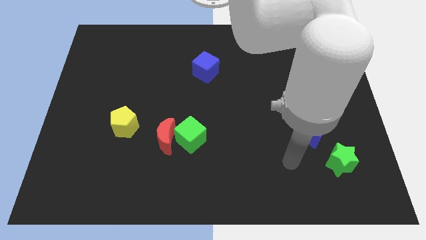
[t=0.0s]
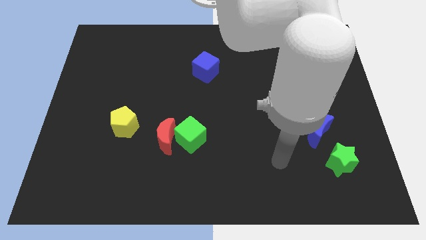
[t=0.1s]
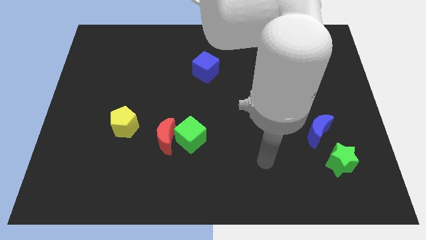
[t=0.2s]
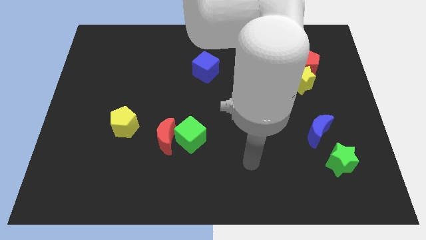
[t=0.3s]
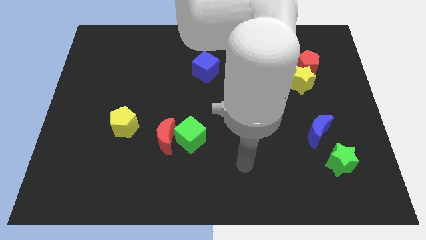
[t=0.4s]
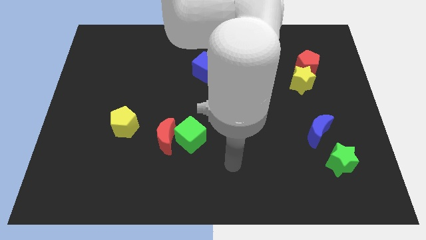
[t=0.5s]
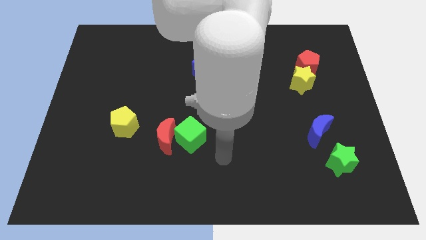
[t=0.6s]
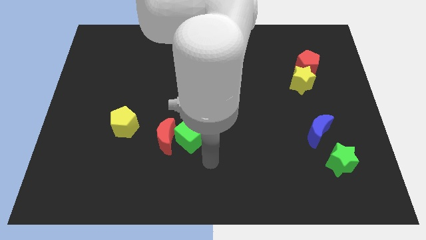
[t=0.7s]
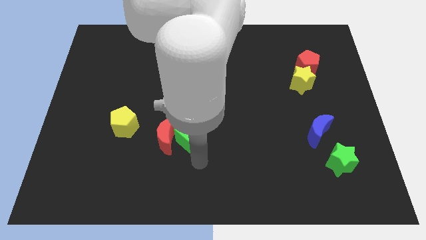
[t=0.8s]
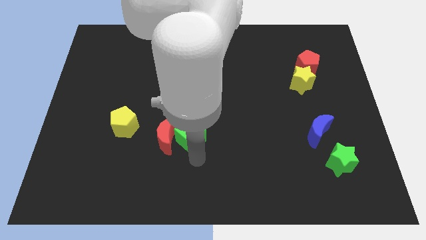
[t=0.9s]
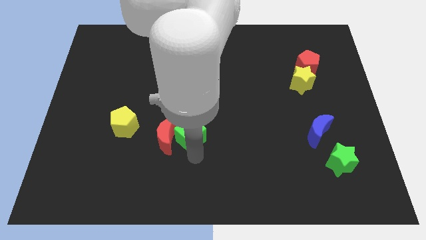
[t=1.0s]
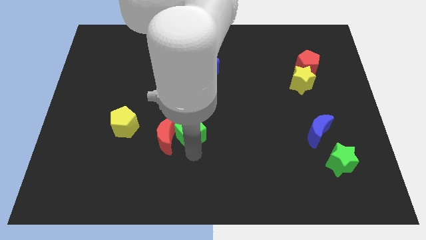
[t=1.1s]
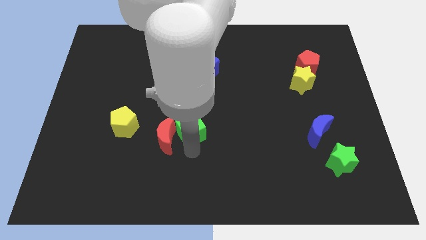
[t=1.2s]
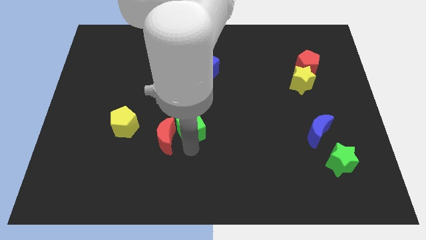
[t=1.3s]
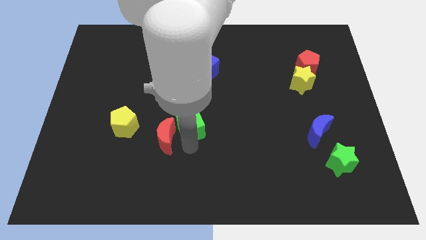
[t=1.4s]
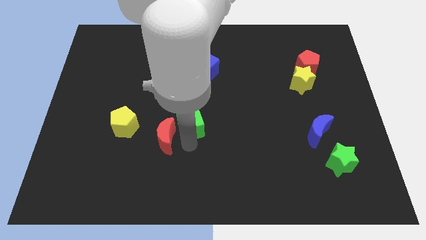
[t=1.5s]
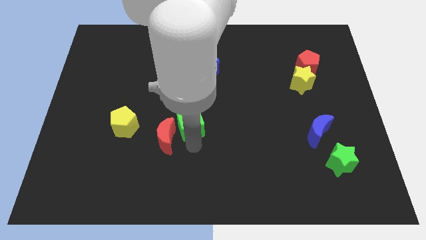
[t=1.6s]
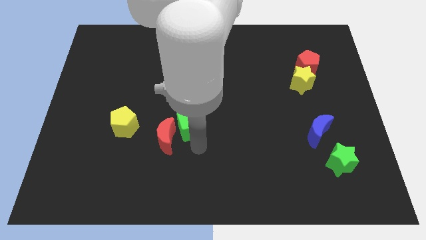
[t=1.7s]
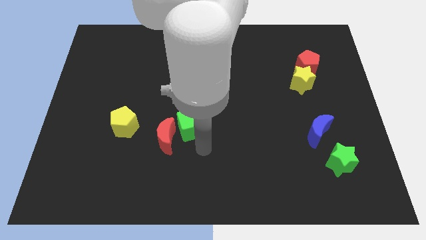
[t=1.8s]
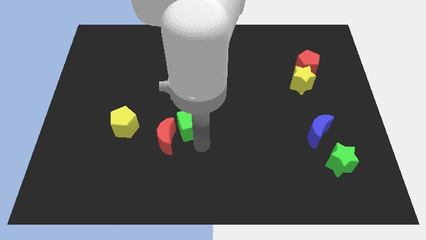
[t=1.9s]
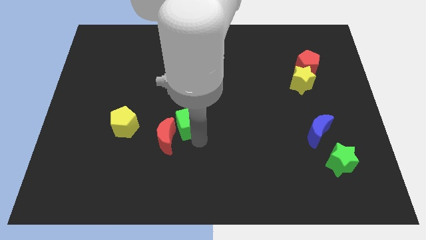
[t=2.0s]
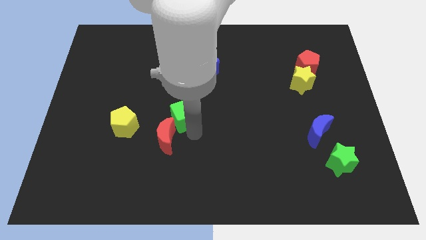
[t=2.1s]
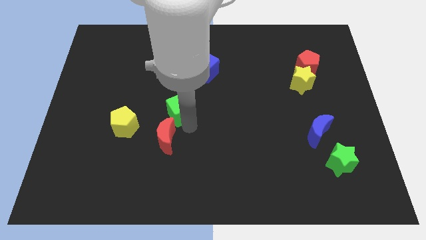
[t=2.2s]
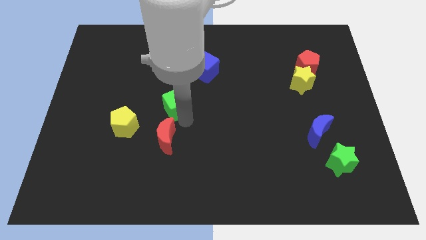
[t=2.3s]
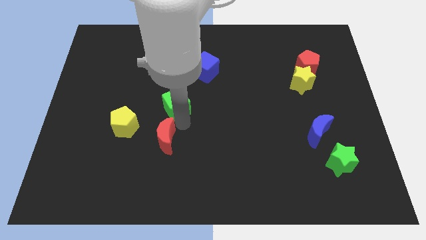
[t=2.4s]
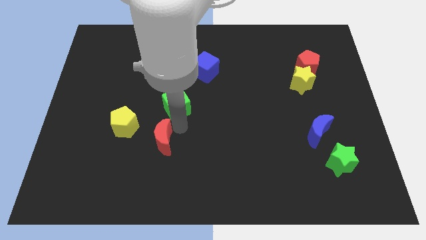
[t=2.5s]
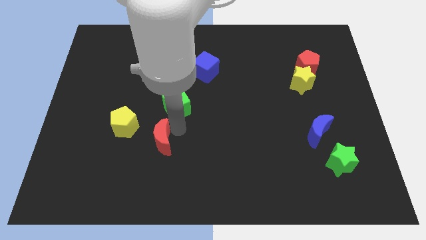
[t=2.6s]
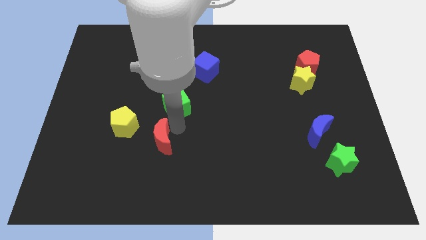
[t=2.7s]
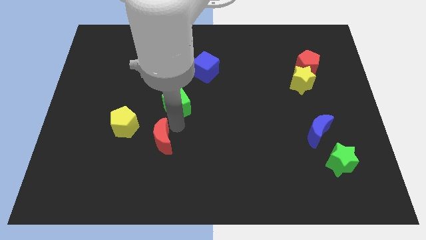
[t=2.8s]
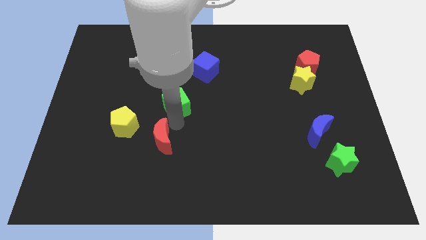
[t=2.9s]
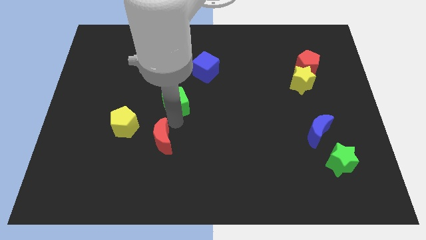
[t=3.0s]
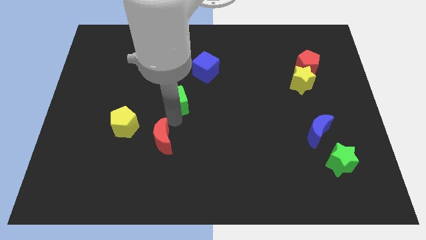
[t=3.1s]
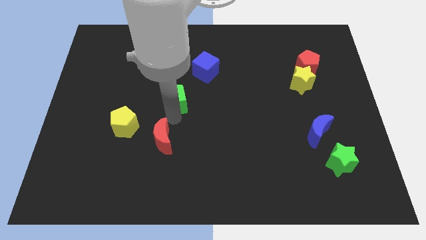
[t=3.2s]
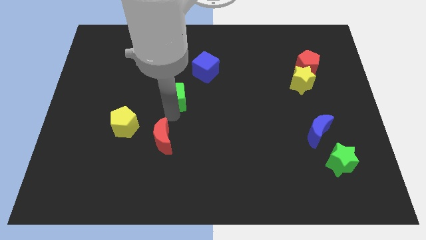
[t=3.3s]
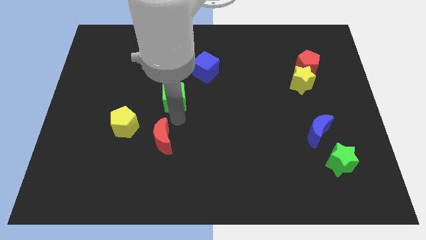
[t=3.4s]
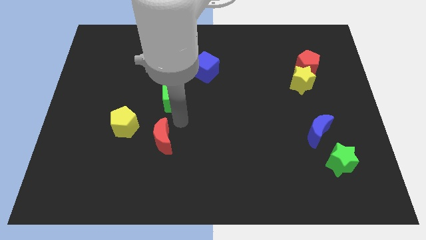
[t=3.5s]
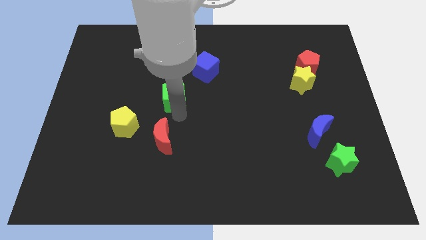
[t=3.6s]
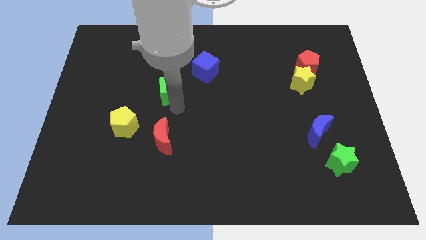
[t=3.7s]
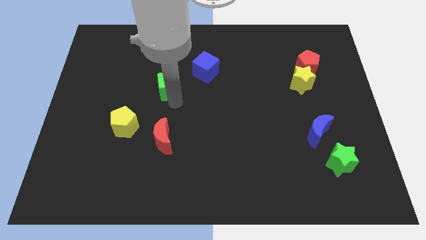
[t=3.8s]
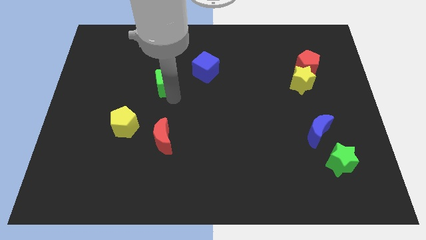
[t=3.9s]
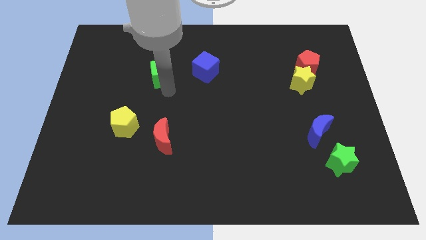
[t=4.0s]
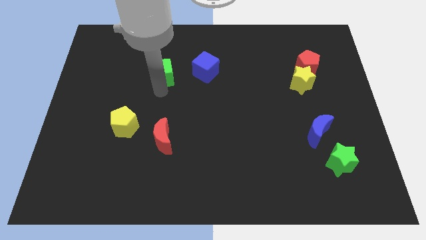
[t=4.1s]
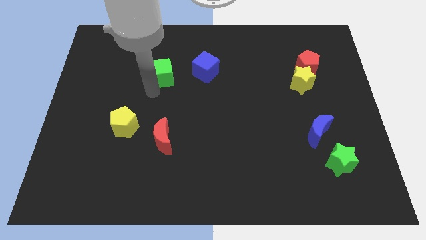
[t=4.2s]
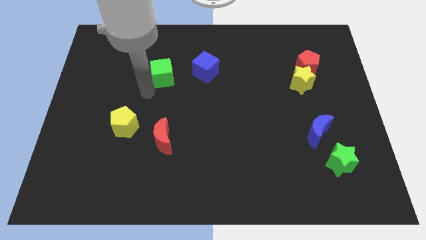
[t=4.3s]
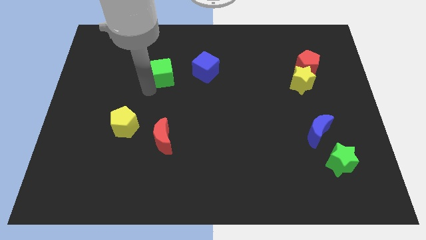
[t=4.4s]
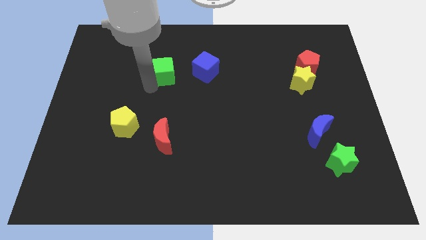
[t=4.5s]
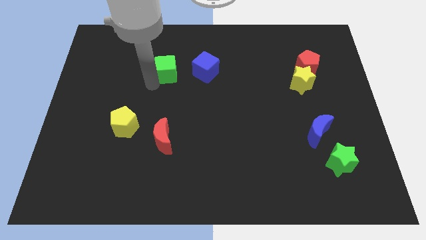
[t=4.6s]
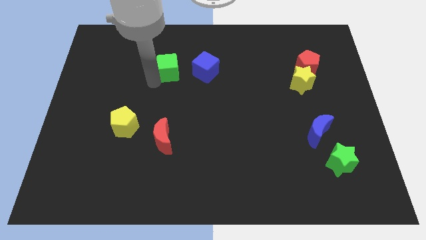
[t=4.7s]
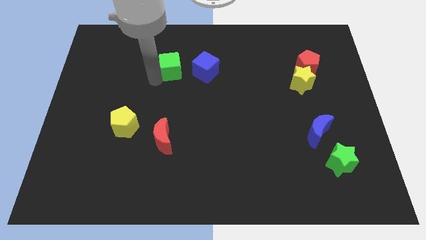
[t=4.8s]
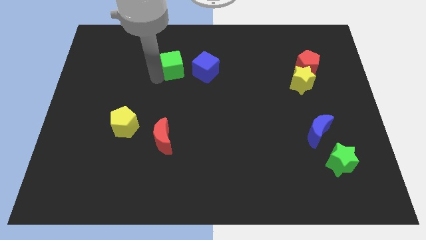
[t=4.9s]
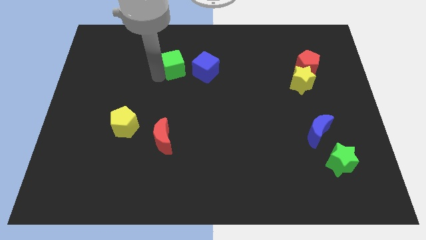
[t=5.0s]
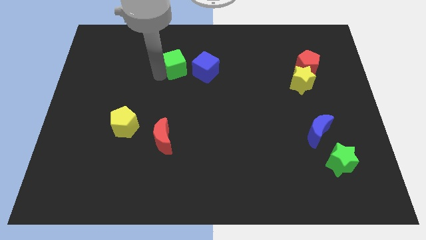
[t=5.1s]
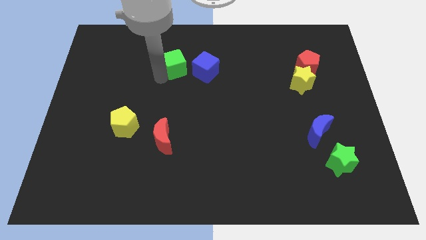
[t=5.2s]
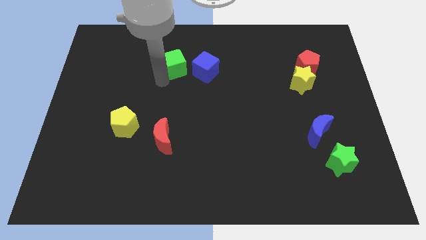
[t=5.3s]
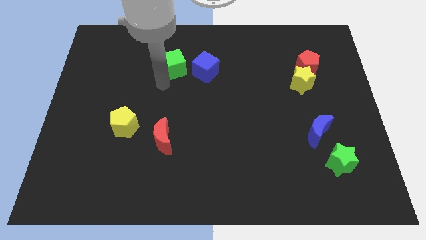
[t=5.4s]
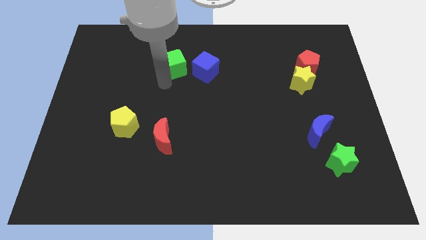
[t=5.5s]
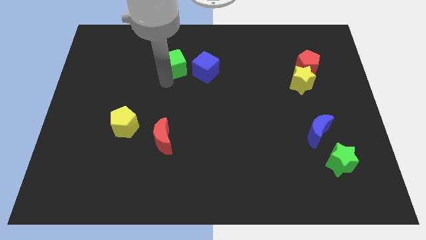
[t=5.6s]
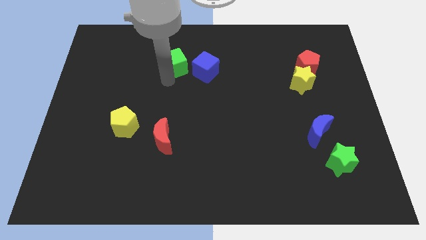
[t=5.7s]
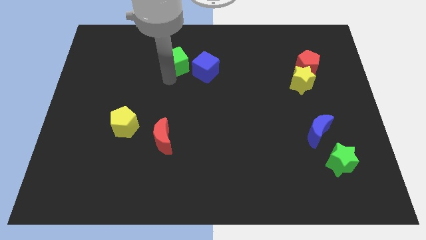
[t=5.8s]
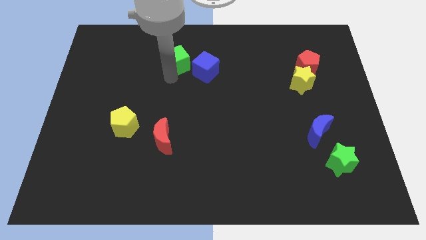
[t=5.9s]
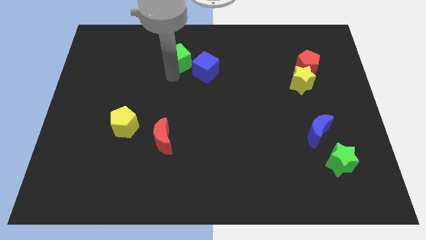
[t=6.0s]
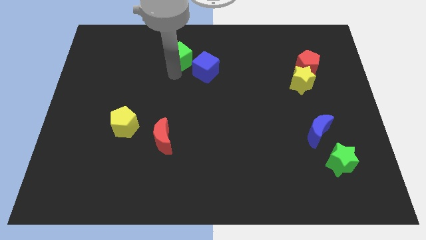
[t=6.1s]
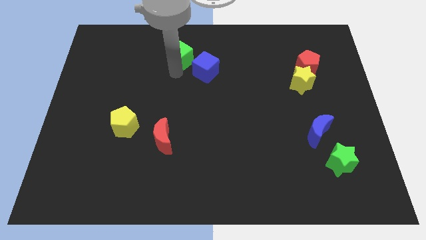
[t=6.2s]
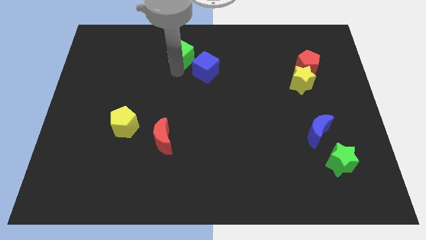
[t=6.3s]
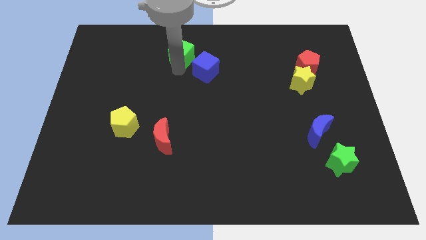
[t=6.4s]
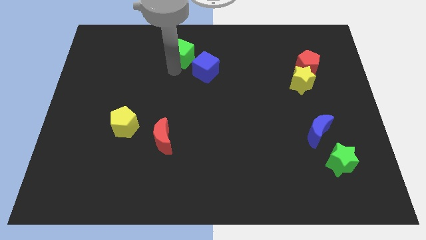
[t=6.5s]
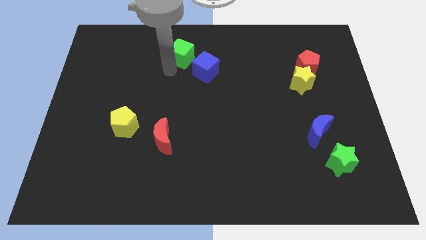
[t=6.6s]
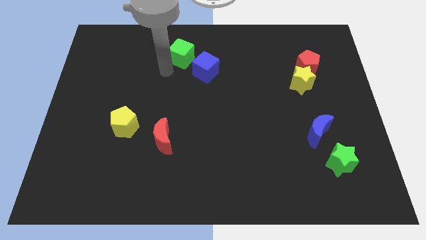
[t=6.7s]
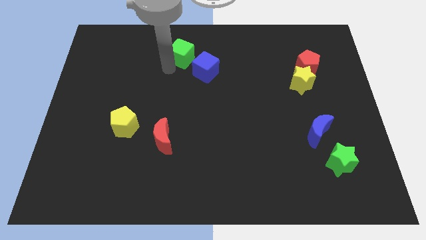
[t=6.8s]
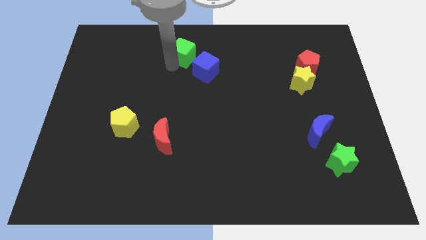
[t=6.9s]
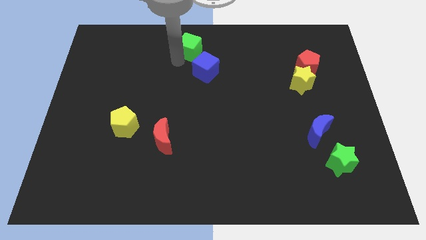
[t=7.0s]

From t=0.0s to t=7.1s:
slide the green cube to the towards your base

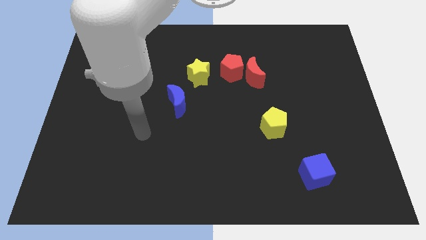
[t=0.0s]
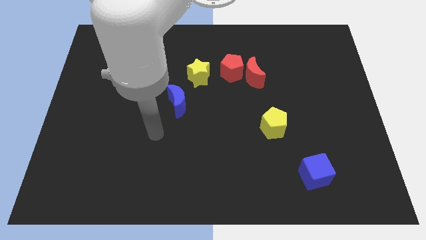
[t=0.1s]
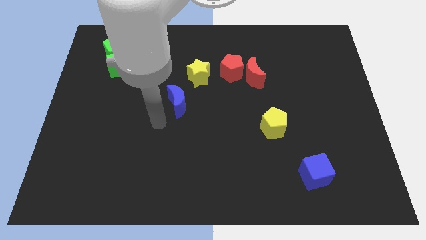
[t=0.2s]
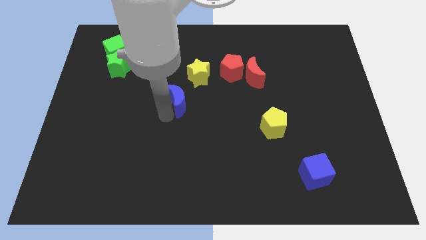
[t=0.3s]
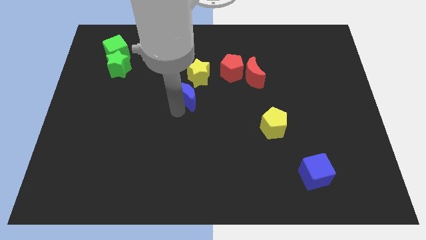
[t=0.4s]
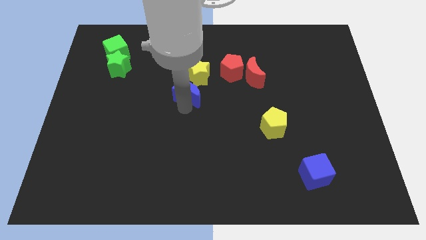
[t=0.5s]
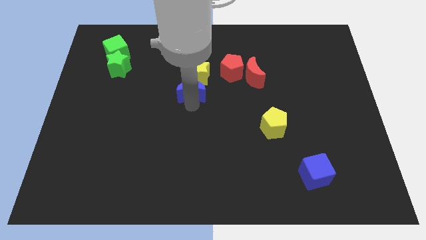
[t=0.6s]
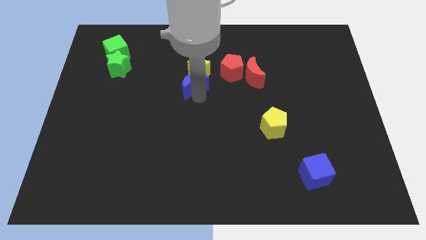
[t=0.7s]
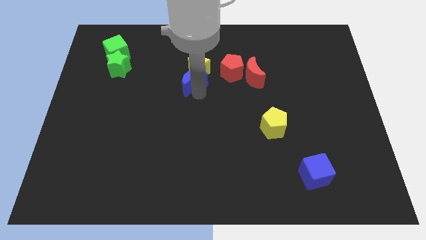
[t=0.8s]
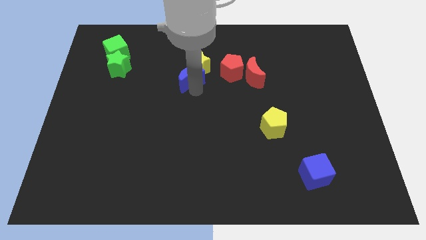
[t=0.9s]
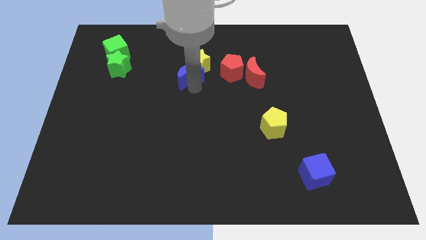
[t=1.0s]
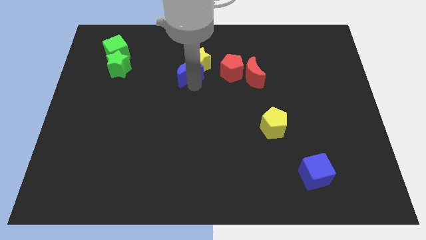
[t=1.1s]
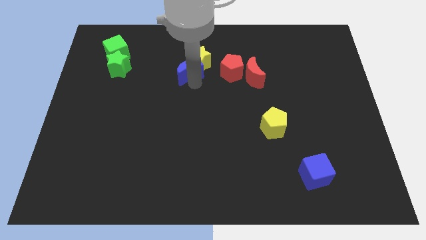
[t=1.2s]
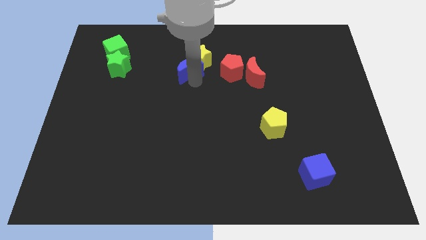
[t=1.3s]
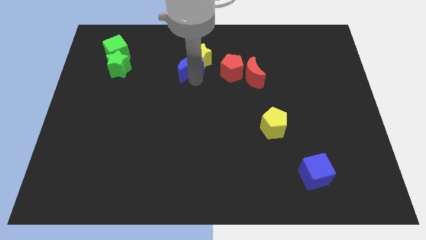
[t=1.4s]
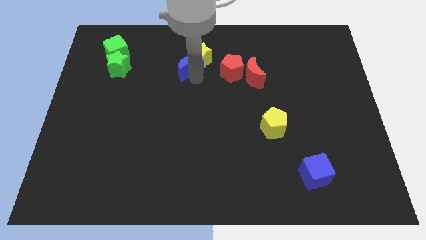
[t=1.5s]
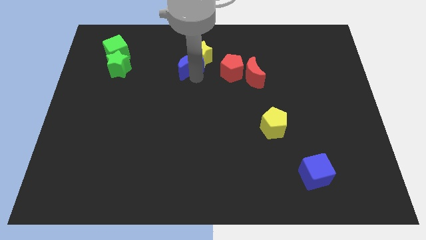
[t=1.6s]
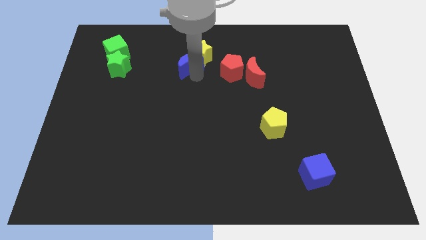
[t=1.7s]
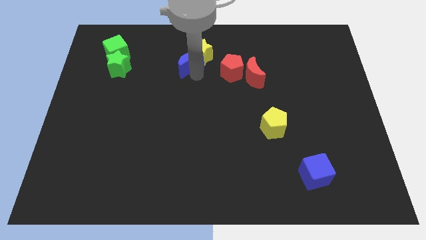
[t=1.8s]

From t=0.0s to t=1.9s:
slide the yellow star to the towards your base
